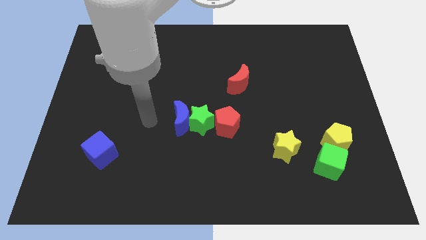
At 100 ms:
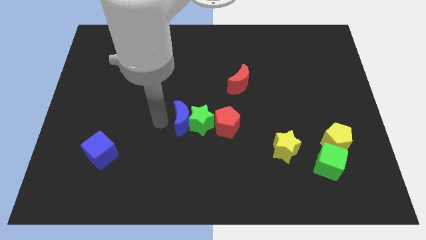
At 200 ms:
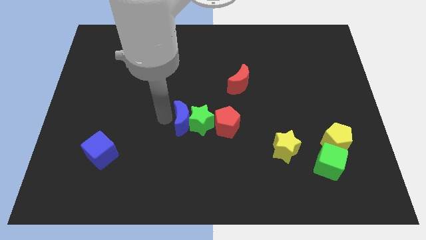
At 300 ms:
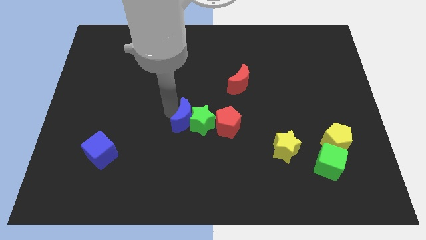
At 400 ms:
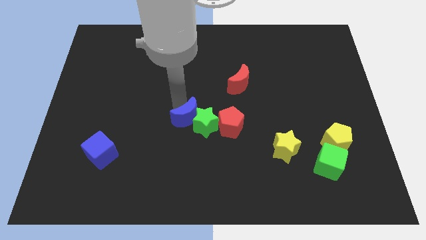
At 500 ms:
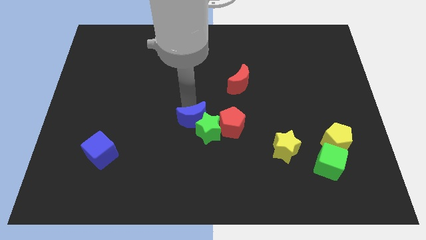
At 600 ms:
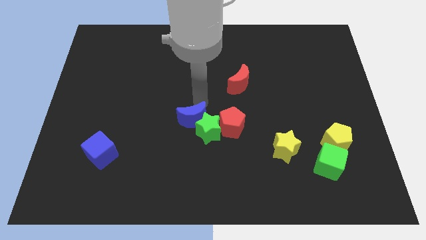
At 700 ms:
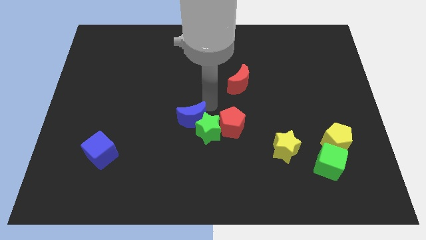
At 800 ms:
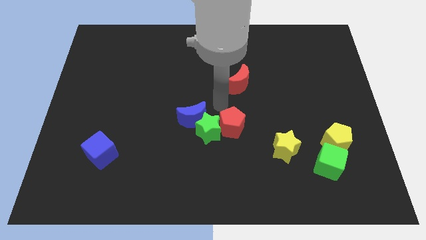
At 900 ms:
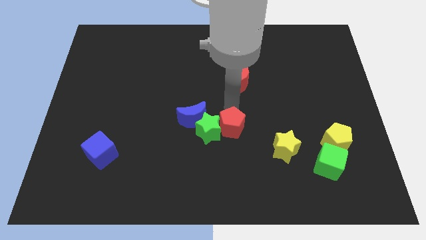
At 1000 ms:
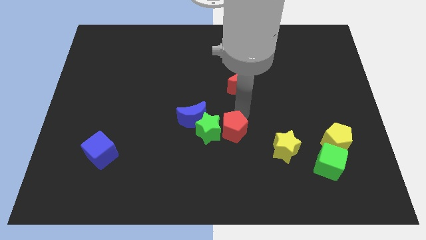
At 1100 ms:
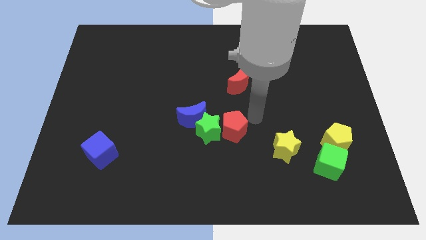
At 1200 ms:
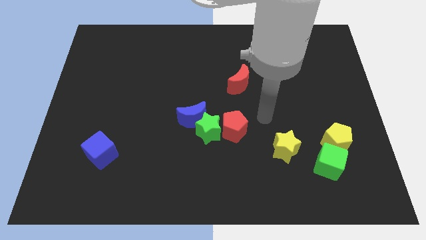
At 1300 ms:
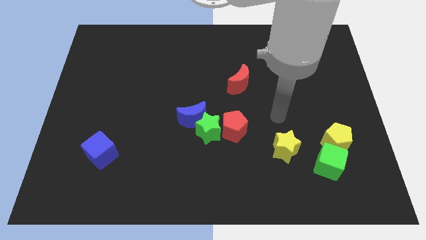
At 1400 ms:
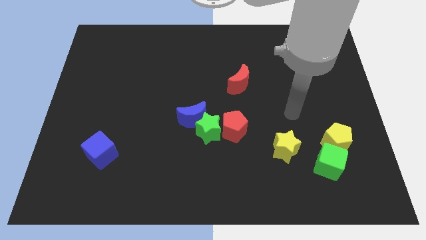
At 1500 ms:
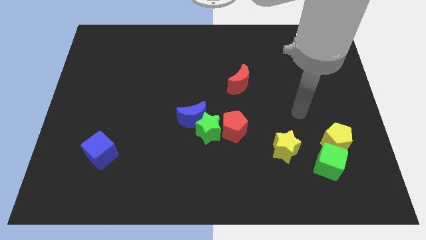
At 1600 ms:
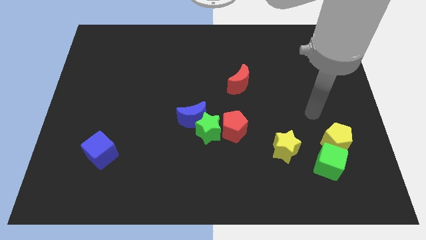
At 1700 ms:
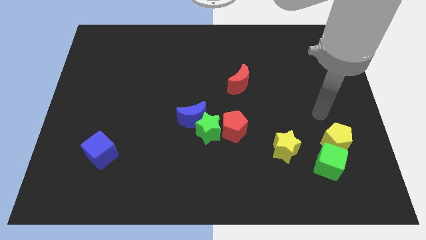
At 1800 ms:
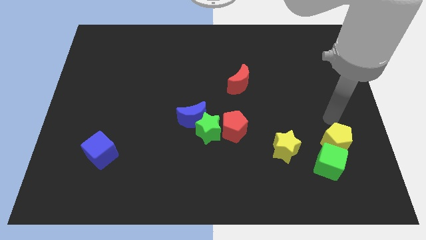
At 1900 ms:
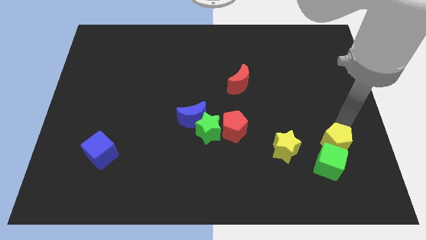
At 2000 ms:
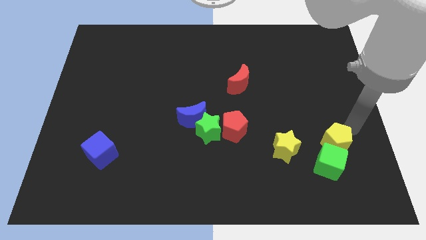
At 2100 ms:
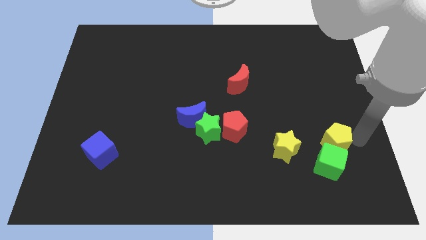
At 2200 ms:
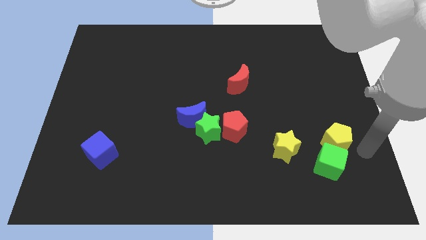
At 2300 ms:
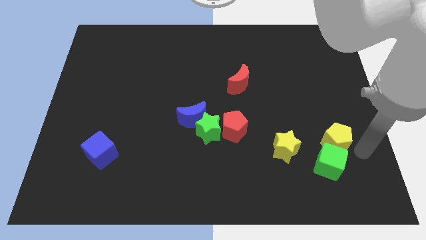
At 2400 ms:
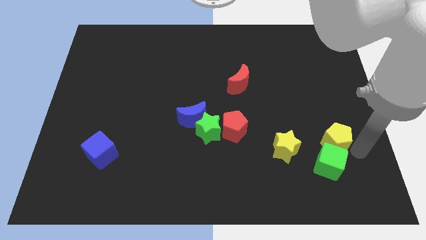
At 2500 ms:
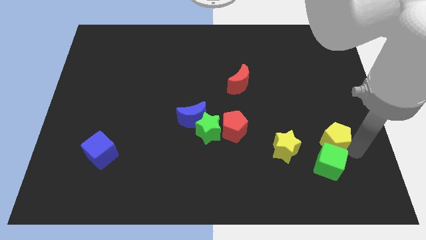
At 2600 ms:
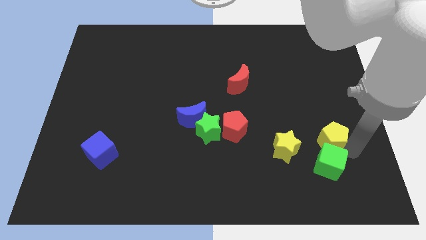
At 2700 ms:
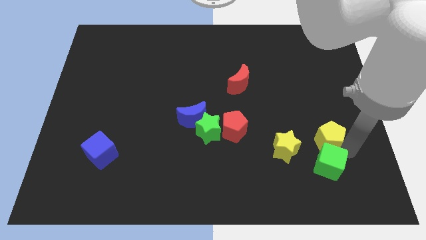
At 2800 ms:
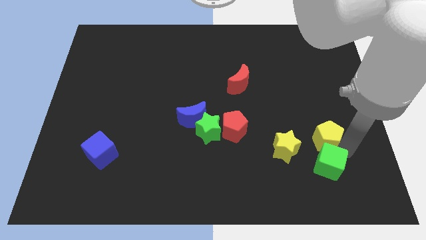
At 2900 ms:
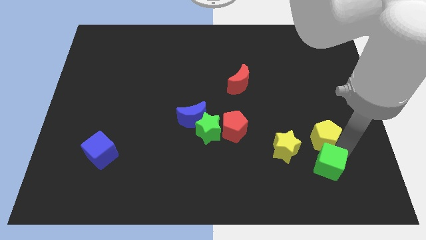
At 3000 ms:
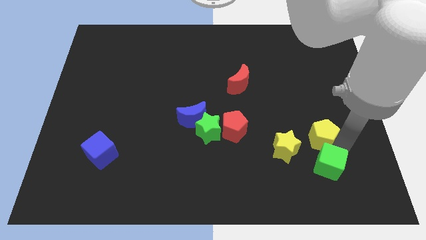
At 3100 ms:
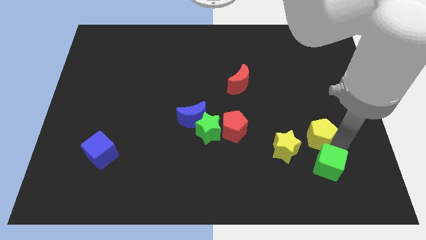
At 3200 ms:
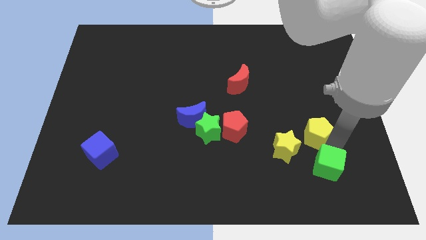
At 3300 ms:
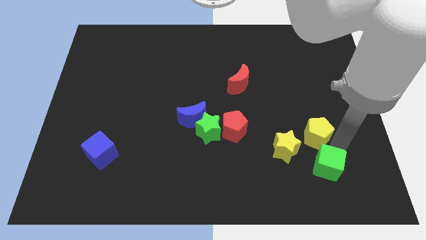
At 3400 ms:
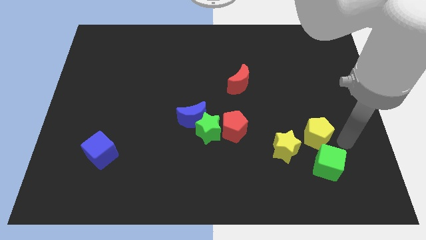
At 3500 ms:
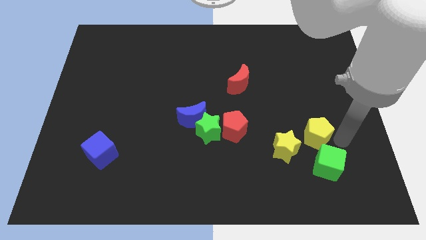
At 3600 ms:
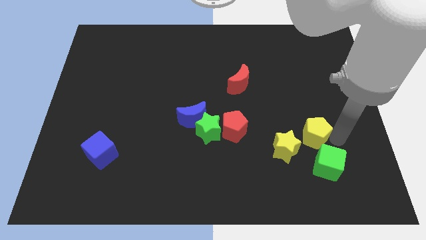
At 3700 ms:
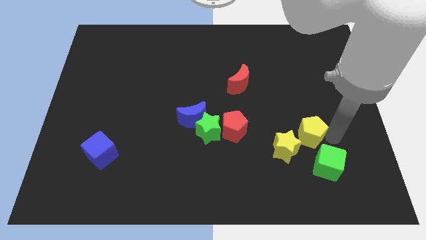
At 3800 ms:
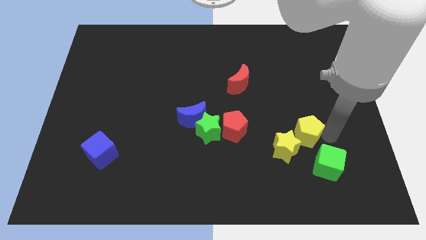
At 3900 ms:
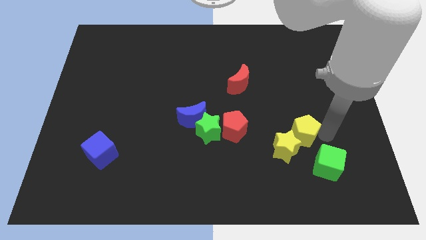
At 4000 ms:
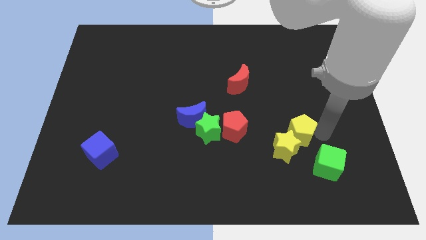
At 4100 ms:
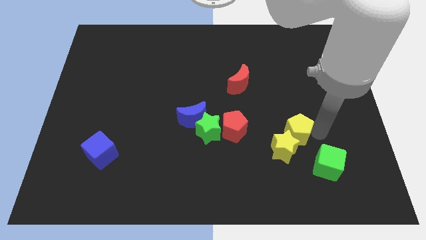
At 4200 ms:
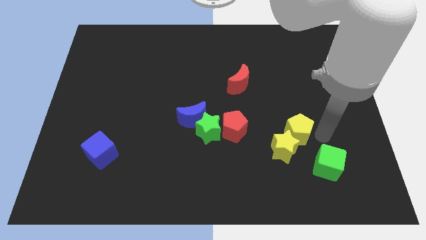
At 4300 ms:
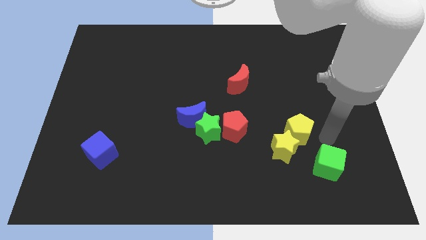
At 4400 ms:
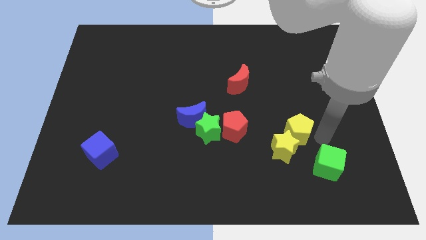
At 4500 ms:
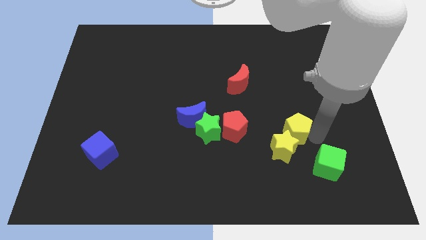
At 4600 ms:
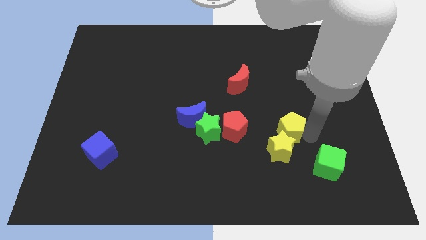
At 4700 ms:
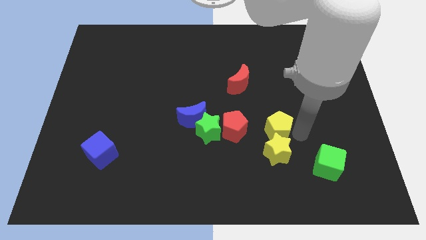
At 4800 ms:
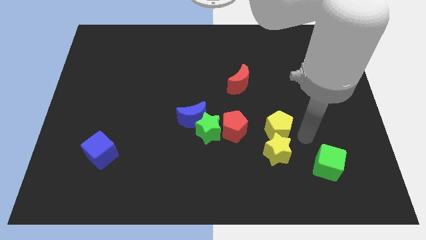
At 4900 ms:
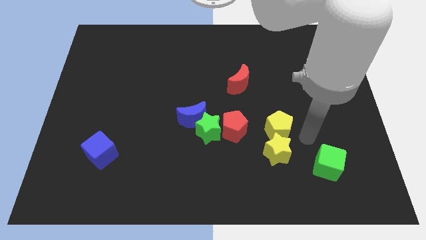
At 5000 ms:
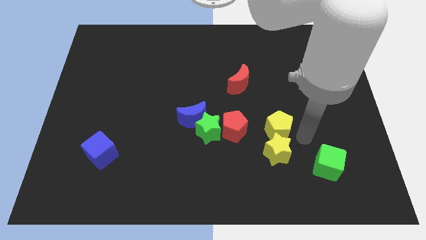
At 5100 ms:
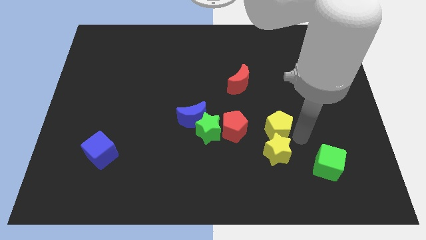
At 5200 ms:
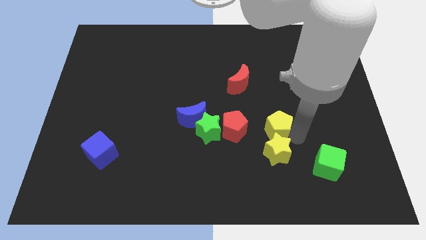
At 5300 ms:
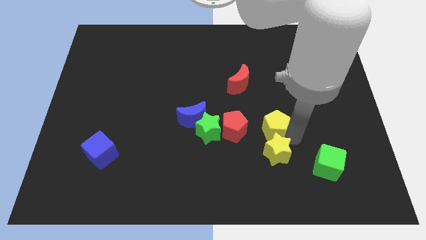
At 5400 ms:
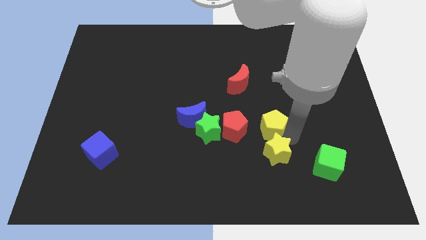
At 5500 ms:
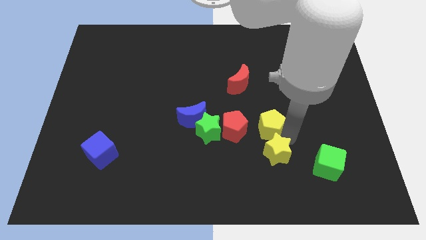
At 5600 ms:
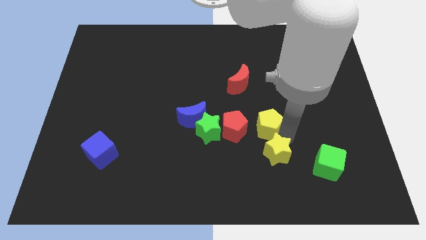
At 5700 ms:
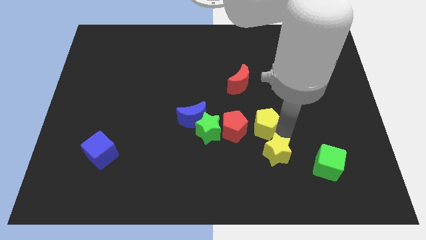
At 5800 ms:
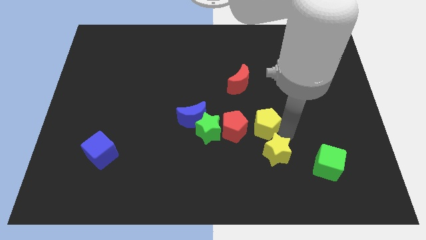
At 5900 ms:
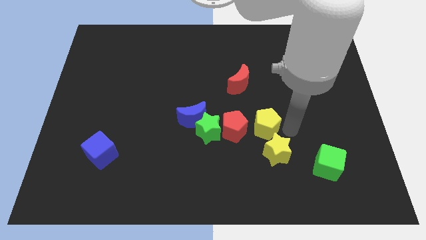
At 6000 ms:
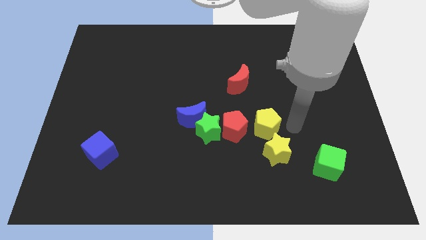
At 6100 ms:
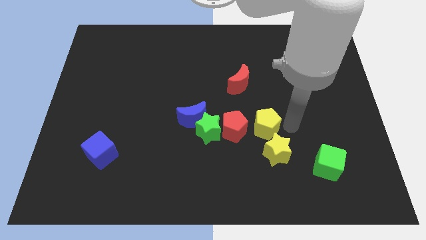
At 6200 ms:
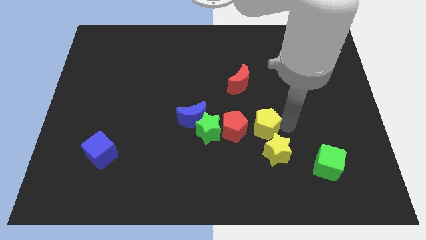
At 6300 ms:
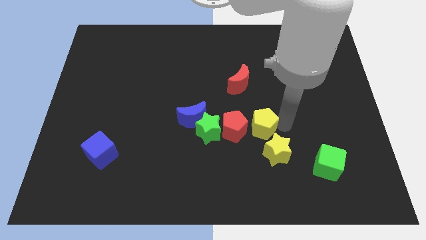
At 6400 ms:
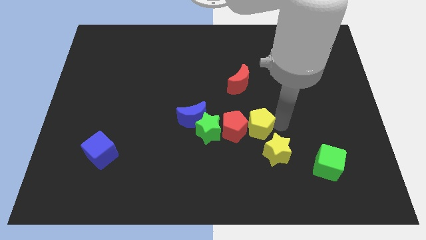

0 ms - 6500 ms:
slide the yellow pentagon towards the red pentagon

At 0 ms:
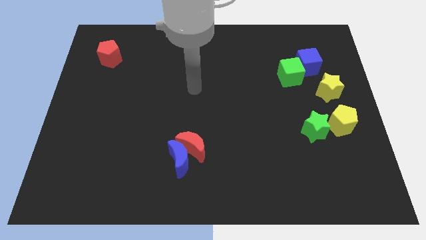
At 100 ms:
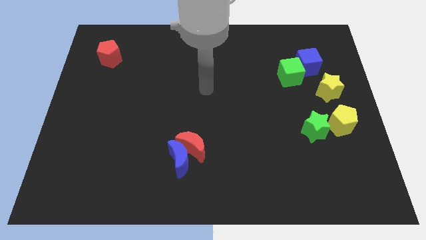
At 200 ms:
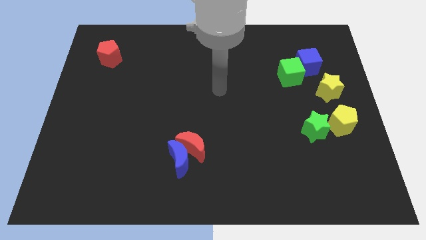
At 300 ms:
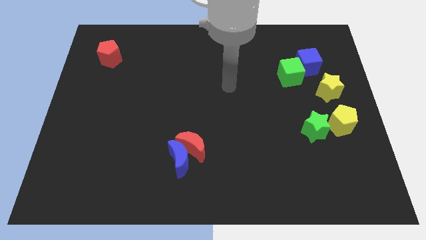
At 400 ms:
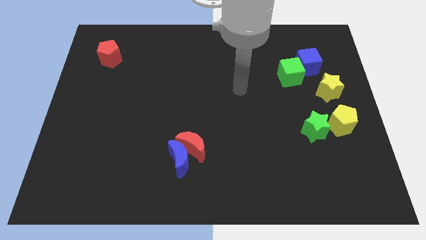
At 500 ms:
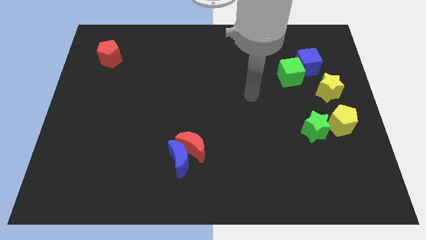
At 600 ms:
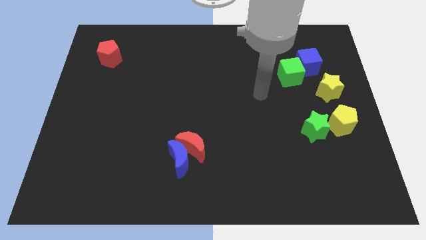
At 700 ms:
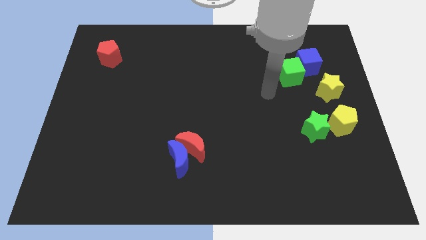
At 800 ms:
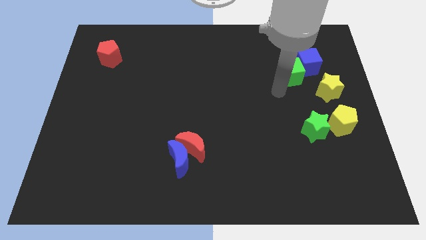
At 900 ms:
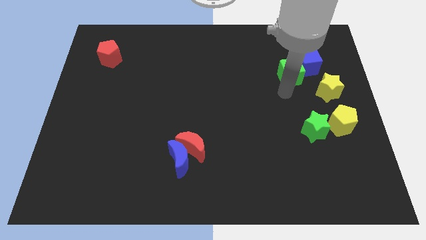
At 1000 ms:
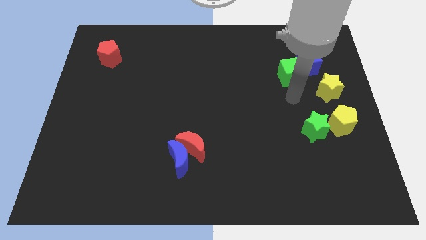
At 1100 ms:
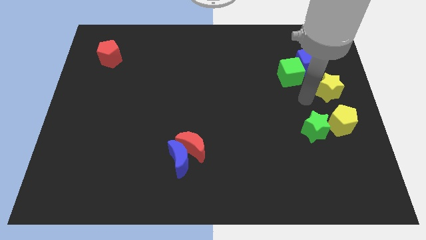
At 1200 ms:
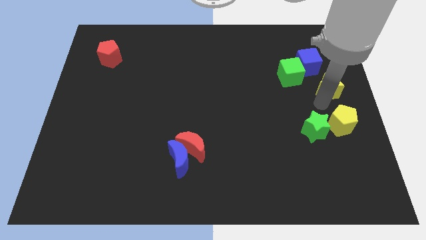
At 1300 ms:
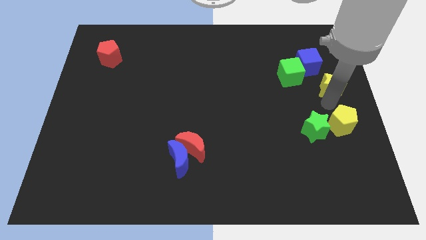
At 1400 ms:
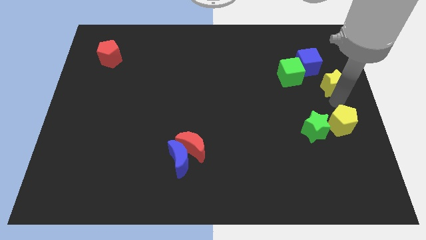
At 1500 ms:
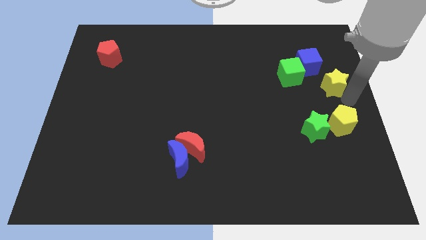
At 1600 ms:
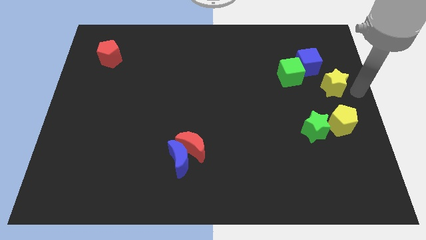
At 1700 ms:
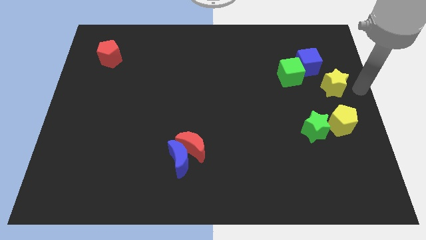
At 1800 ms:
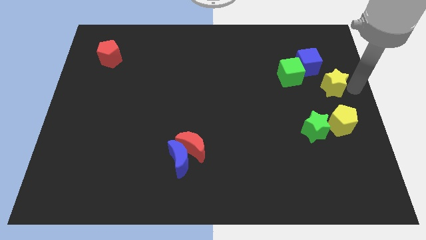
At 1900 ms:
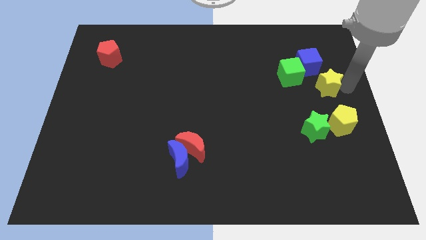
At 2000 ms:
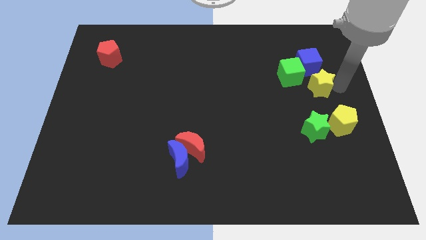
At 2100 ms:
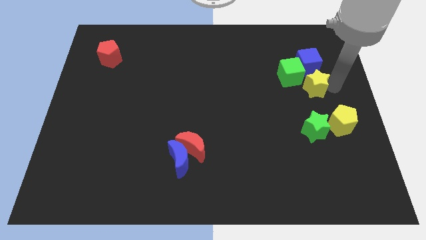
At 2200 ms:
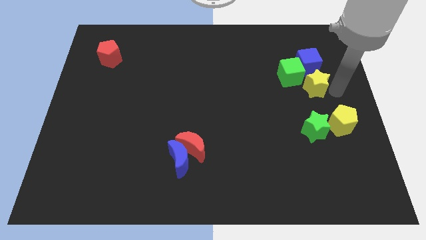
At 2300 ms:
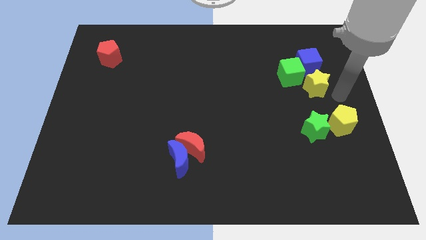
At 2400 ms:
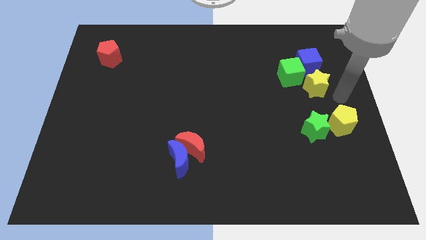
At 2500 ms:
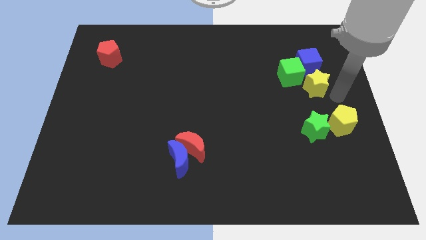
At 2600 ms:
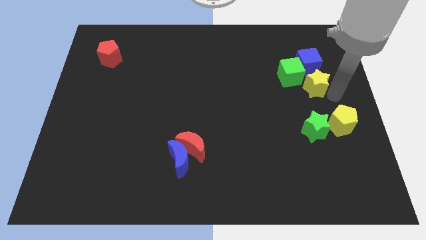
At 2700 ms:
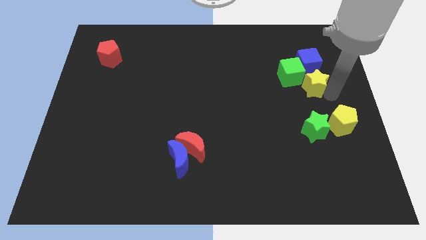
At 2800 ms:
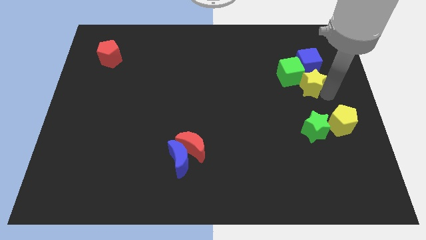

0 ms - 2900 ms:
slide the yellow star close to the green cube
